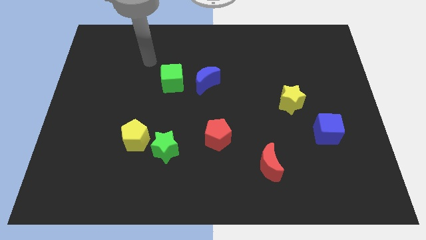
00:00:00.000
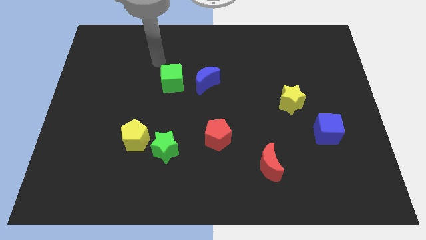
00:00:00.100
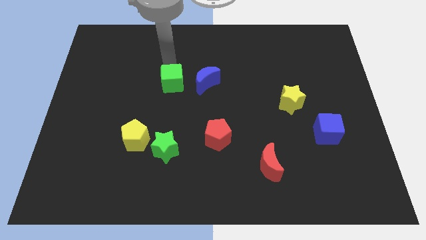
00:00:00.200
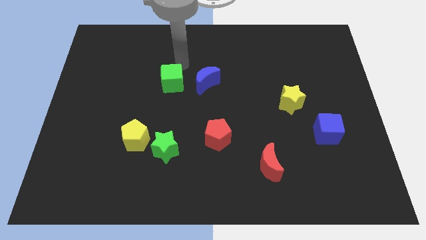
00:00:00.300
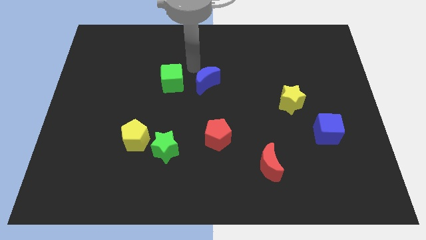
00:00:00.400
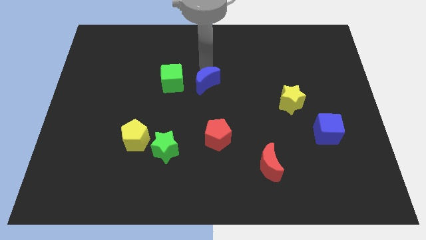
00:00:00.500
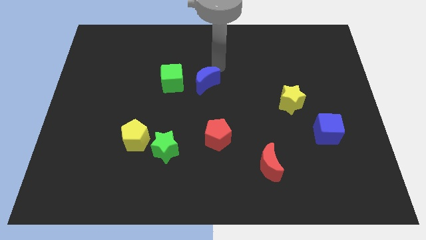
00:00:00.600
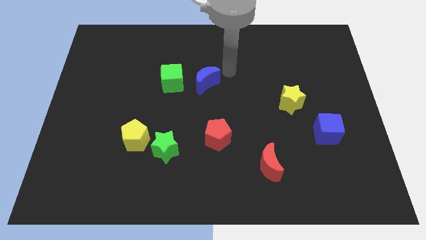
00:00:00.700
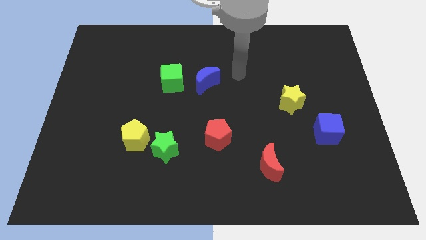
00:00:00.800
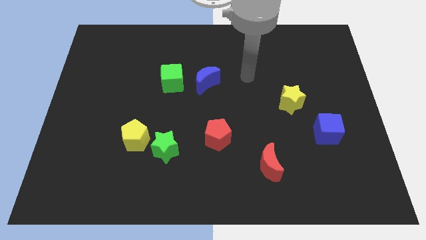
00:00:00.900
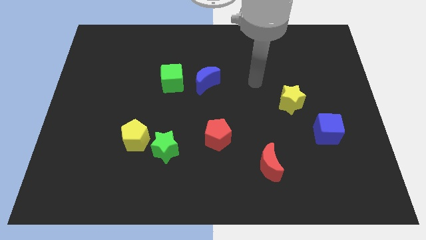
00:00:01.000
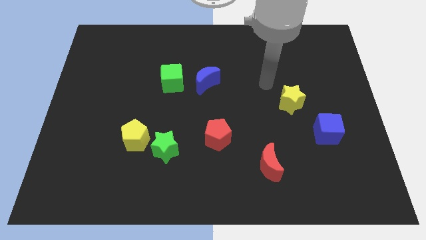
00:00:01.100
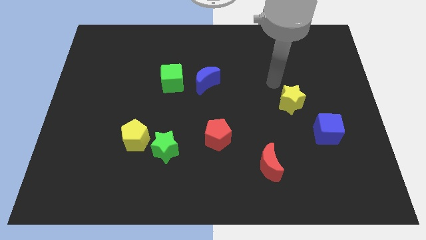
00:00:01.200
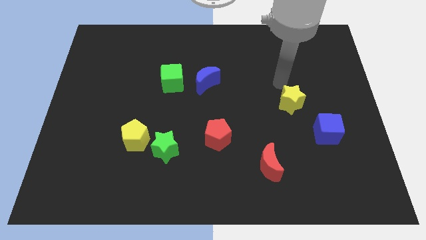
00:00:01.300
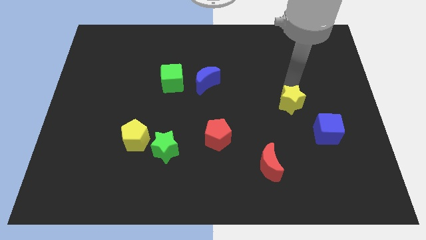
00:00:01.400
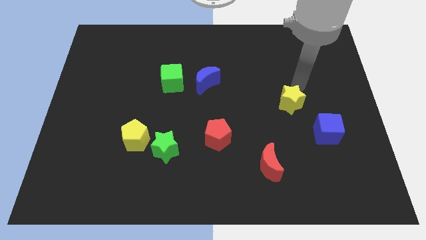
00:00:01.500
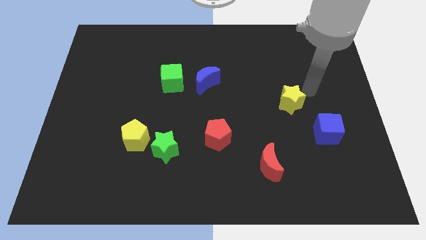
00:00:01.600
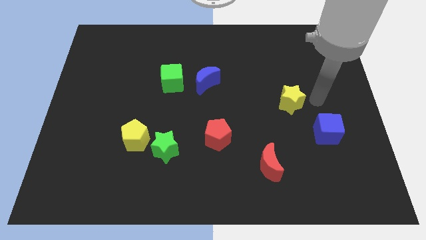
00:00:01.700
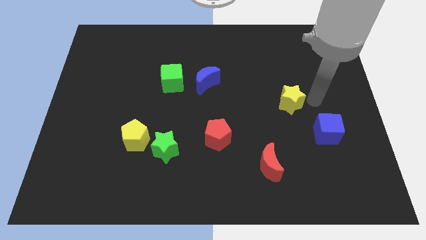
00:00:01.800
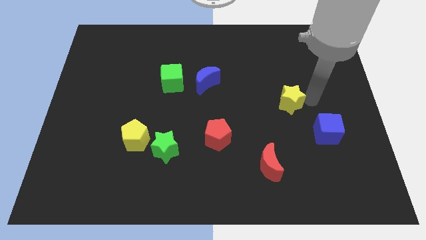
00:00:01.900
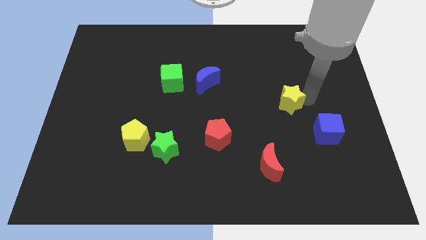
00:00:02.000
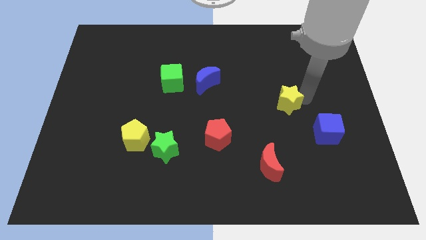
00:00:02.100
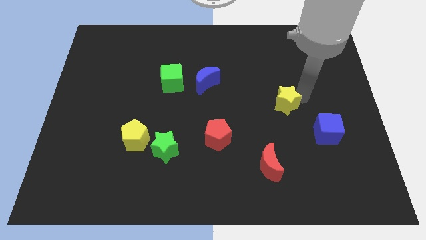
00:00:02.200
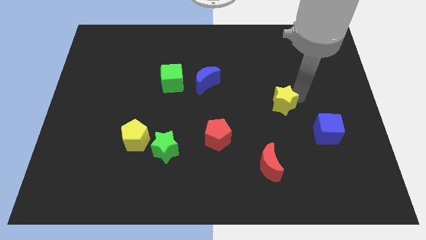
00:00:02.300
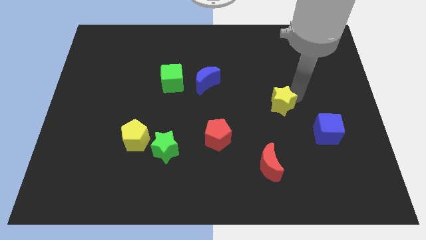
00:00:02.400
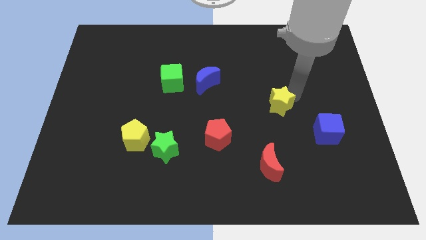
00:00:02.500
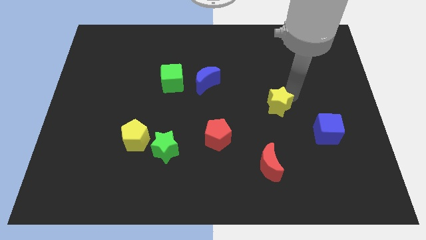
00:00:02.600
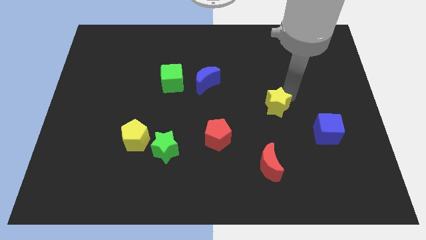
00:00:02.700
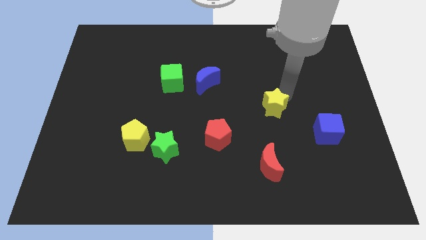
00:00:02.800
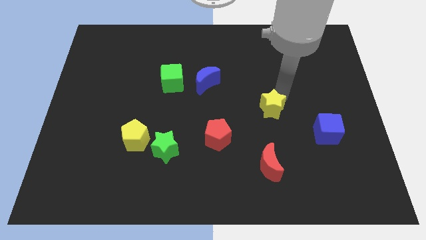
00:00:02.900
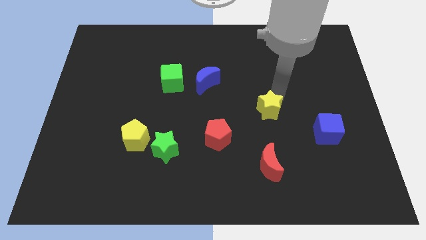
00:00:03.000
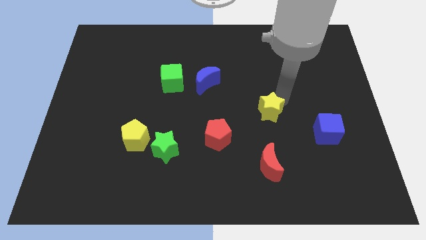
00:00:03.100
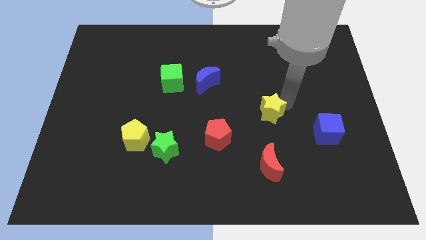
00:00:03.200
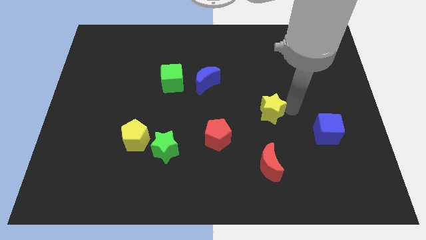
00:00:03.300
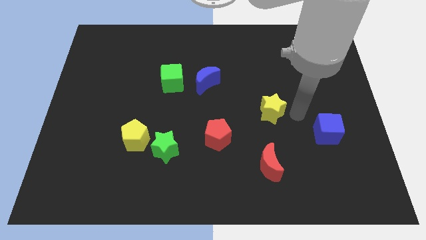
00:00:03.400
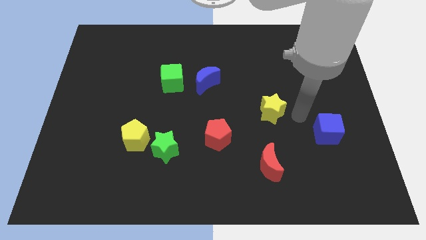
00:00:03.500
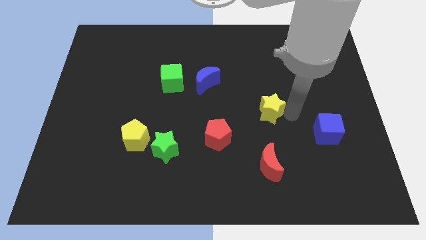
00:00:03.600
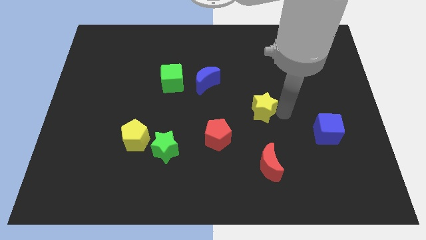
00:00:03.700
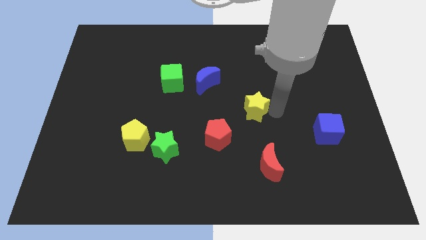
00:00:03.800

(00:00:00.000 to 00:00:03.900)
move the yellow star to the left a little bit

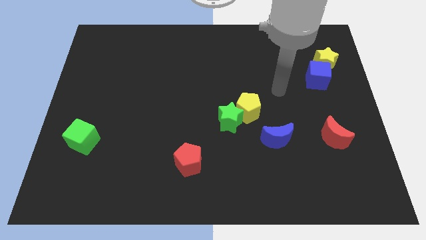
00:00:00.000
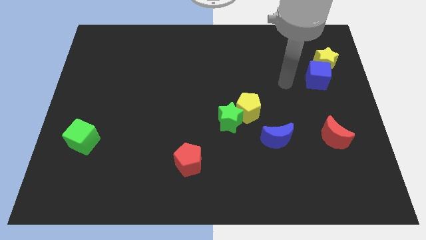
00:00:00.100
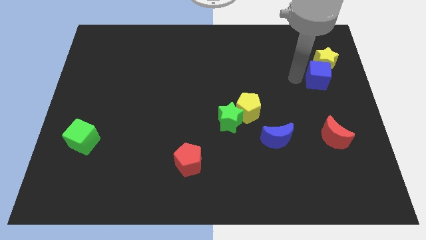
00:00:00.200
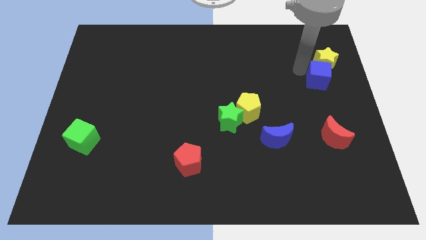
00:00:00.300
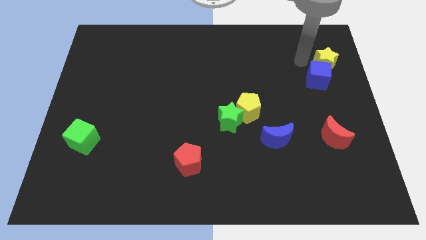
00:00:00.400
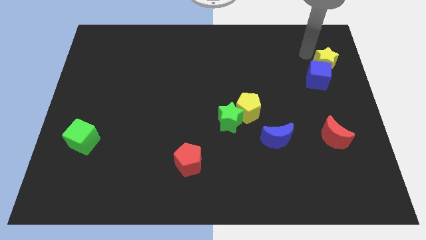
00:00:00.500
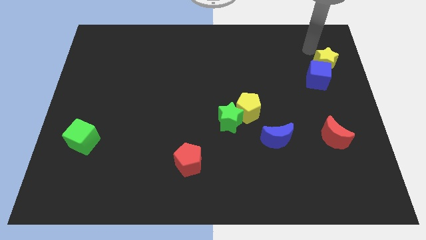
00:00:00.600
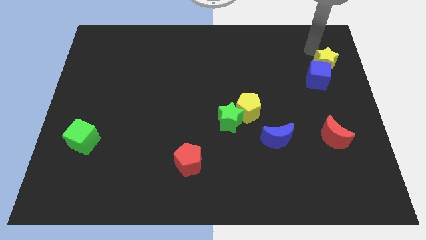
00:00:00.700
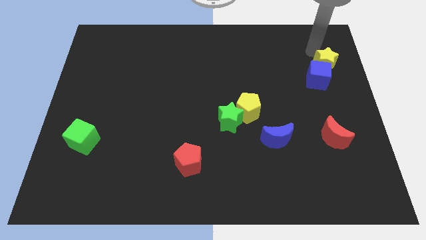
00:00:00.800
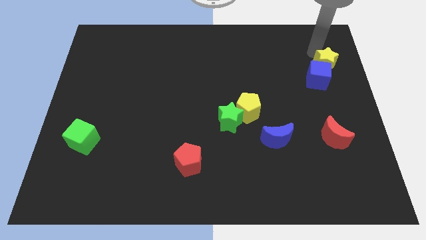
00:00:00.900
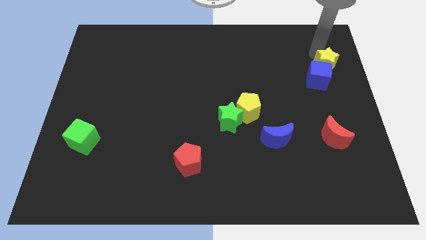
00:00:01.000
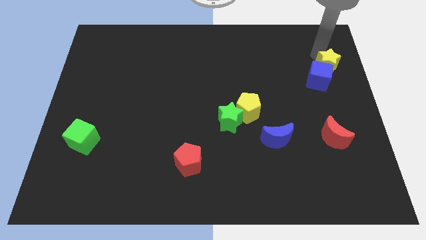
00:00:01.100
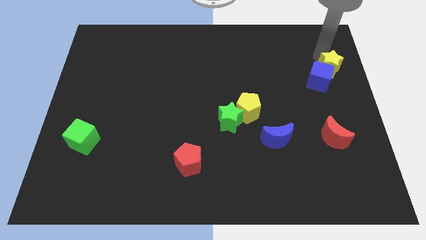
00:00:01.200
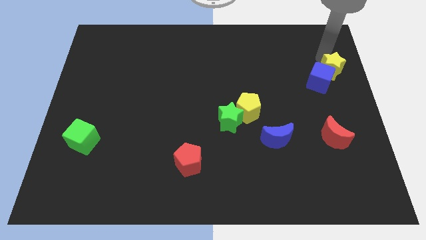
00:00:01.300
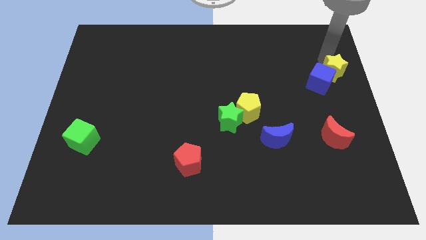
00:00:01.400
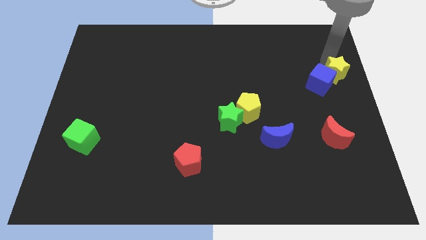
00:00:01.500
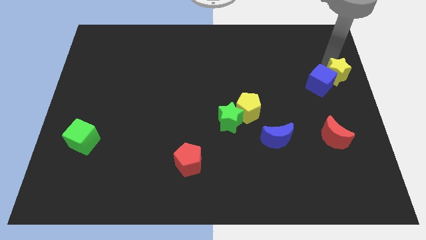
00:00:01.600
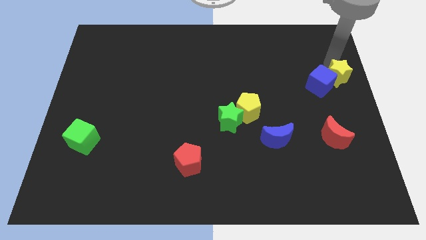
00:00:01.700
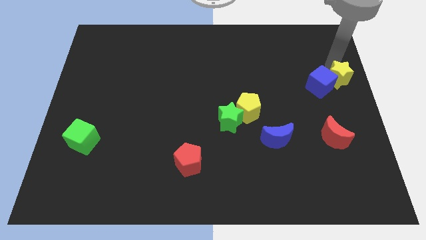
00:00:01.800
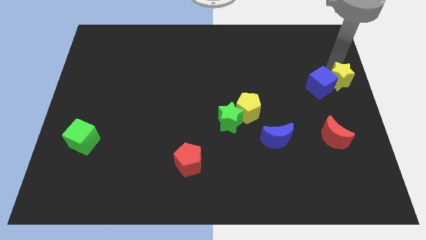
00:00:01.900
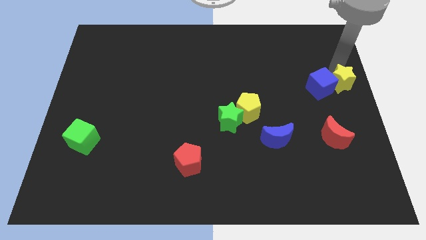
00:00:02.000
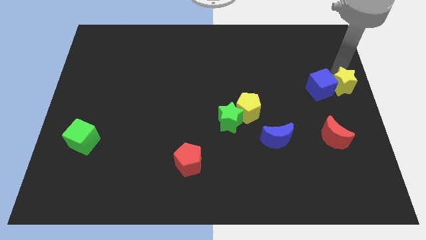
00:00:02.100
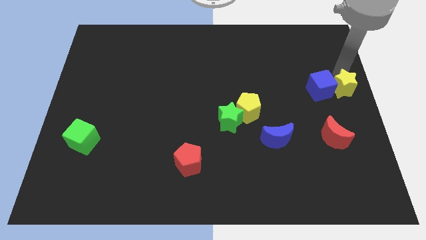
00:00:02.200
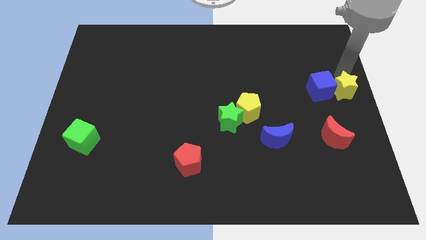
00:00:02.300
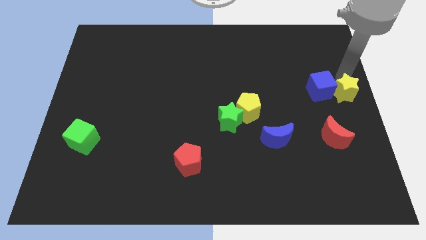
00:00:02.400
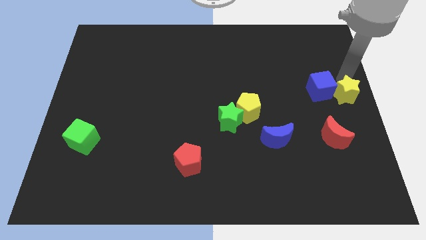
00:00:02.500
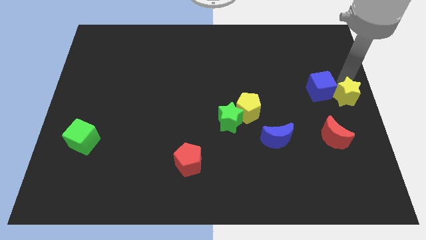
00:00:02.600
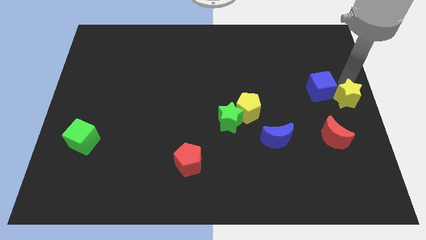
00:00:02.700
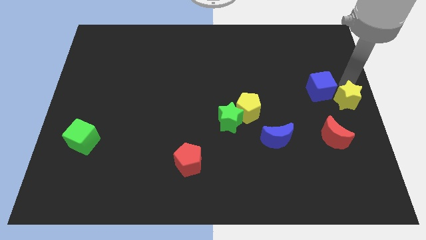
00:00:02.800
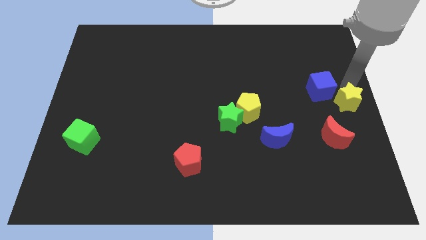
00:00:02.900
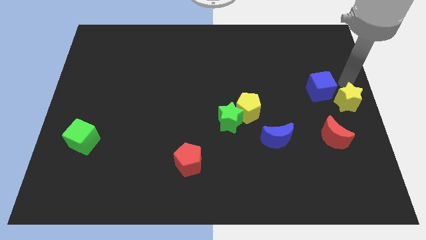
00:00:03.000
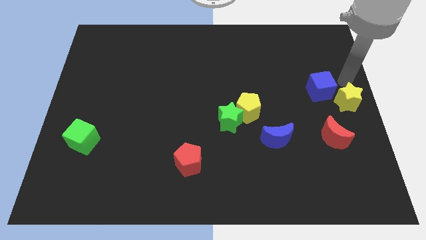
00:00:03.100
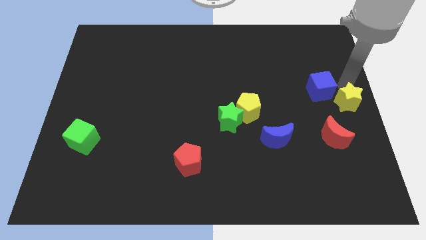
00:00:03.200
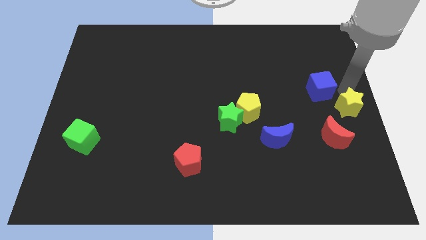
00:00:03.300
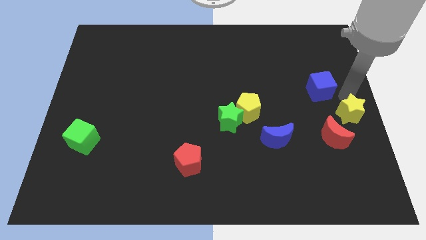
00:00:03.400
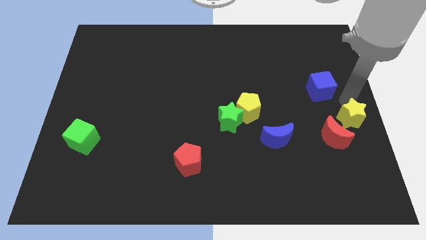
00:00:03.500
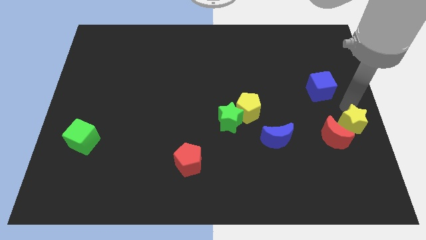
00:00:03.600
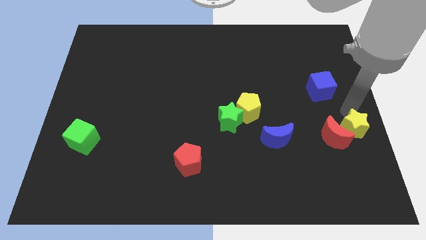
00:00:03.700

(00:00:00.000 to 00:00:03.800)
move the yellow star down

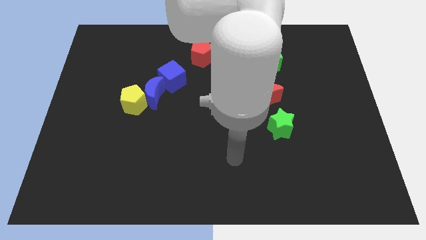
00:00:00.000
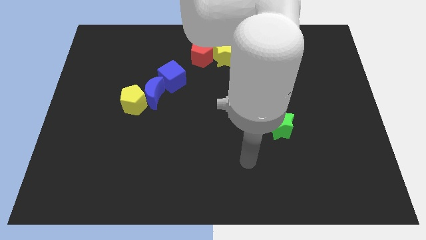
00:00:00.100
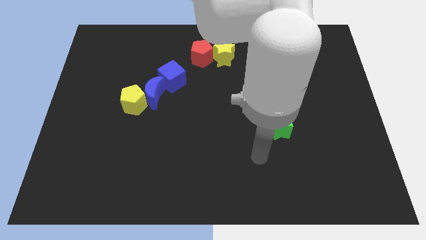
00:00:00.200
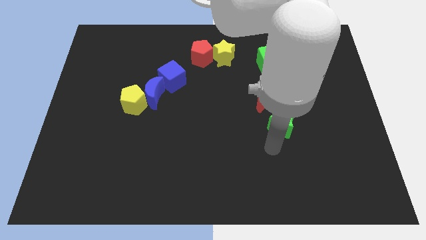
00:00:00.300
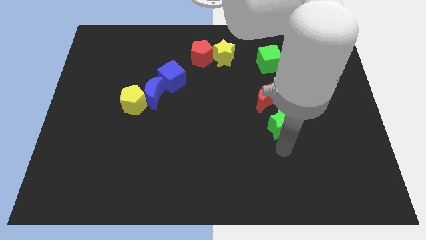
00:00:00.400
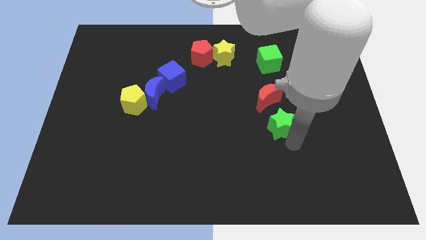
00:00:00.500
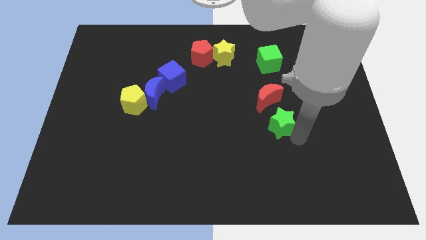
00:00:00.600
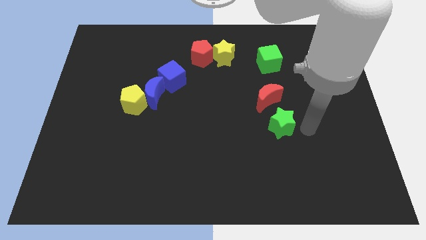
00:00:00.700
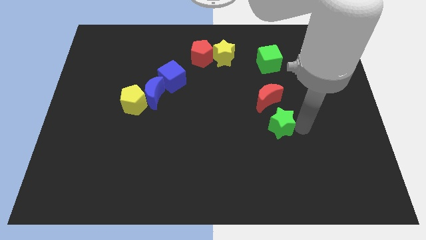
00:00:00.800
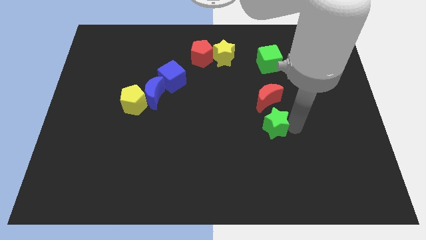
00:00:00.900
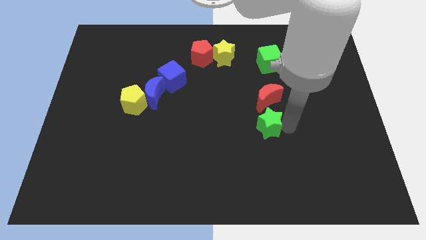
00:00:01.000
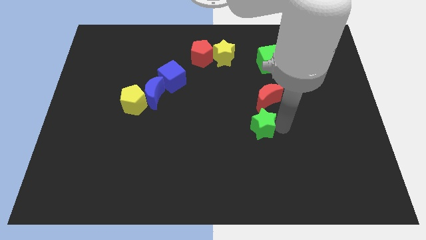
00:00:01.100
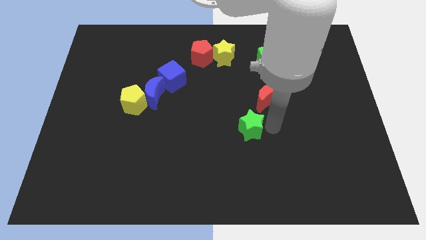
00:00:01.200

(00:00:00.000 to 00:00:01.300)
push the green star to the left a little

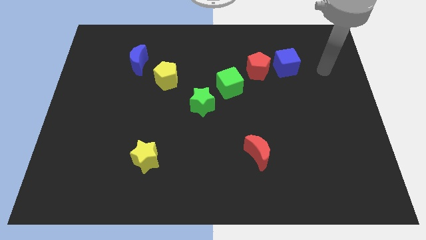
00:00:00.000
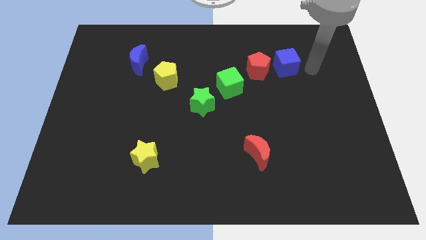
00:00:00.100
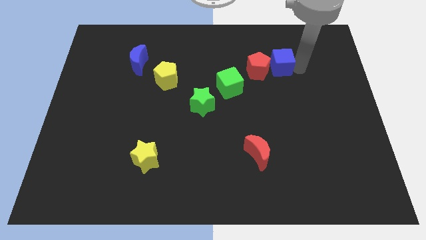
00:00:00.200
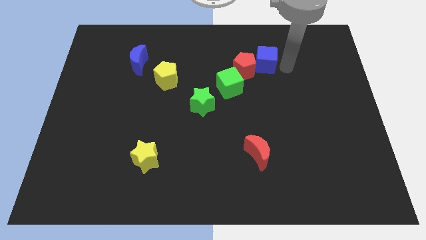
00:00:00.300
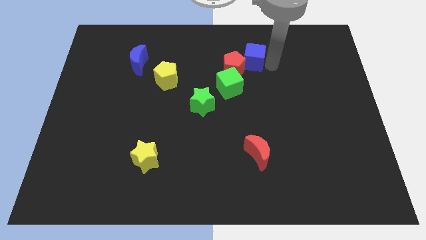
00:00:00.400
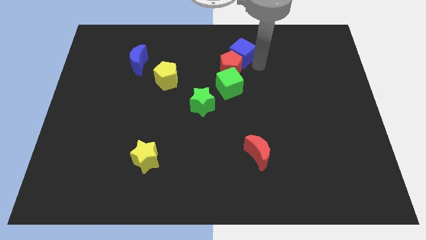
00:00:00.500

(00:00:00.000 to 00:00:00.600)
push the red pentagon a little bit to the left
